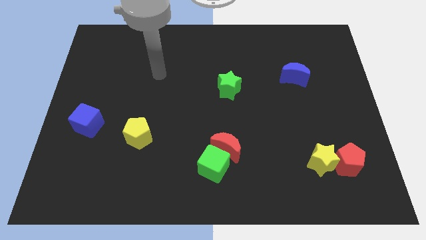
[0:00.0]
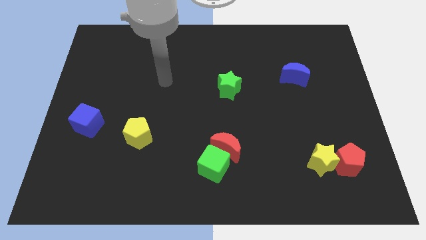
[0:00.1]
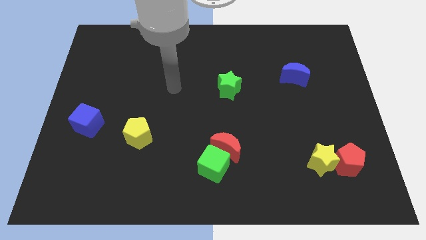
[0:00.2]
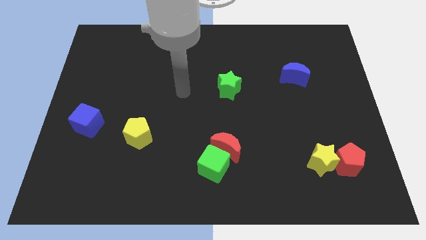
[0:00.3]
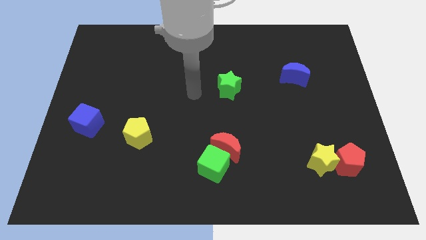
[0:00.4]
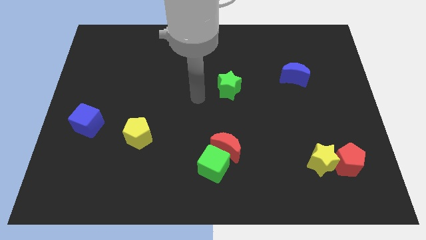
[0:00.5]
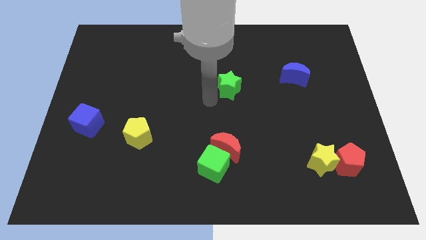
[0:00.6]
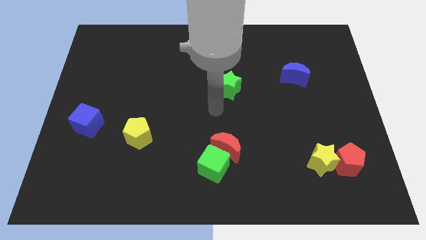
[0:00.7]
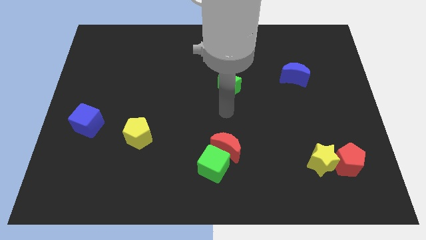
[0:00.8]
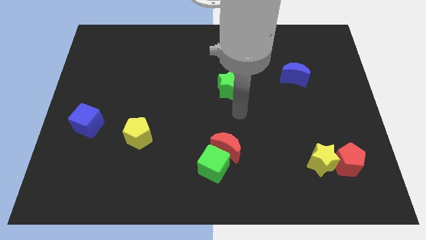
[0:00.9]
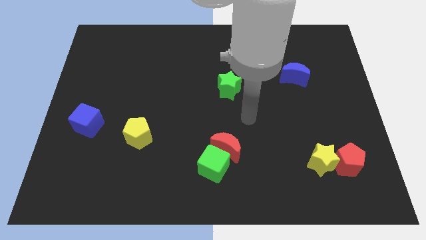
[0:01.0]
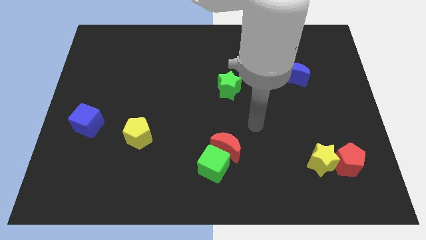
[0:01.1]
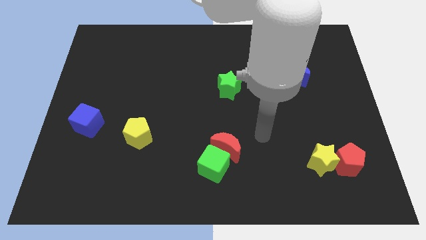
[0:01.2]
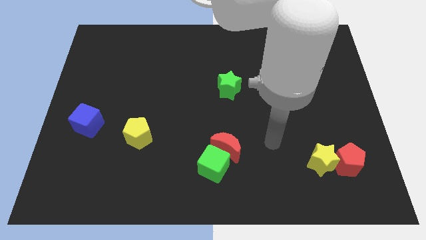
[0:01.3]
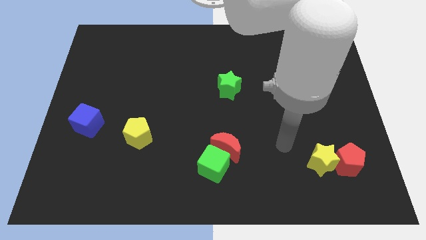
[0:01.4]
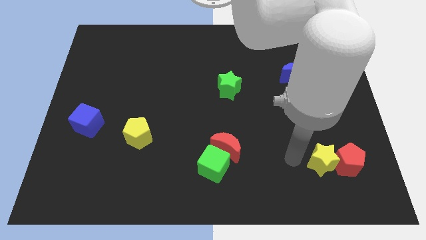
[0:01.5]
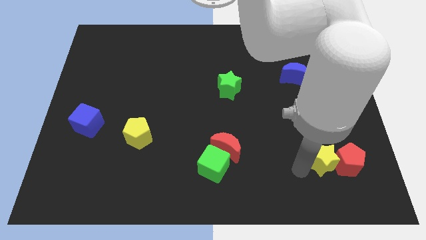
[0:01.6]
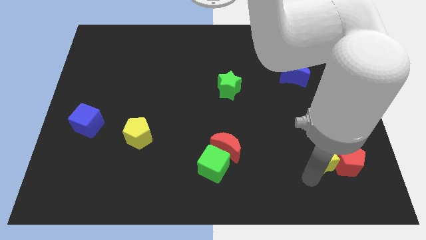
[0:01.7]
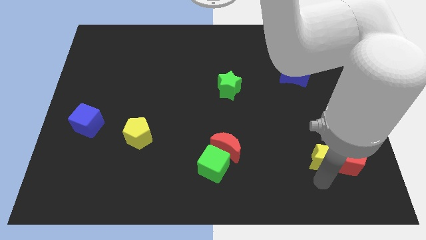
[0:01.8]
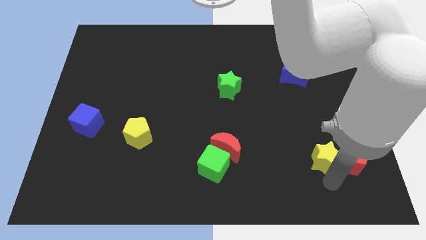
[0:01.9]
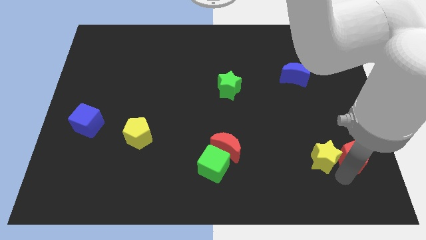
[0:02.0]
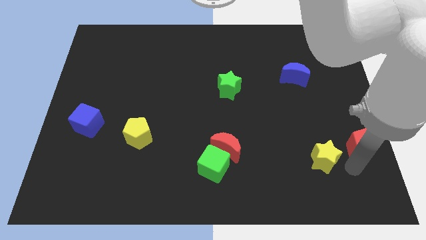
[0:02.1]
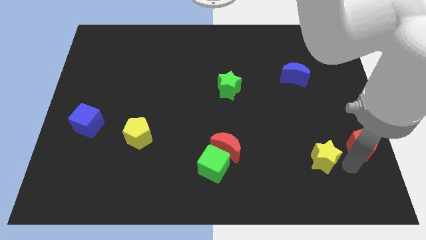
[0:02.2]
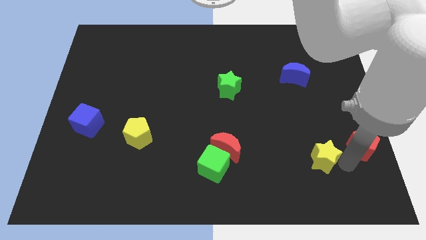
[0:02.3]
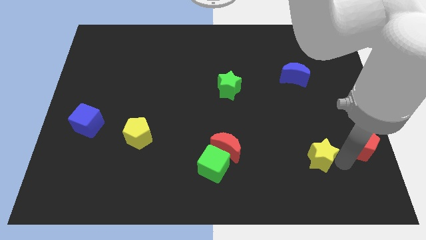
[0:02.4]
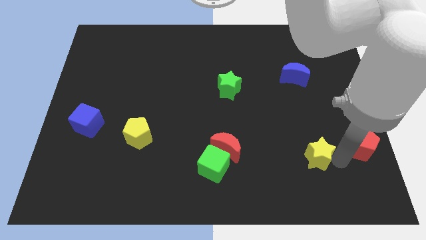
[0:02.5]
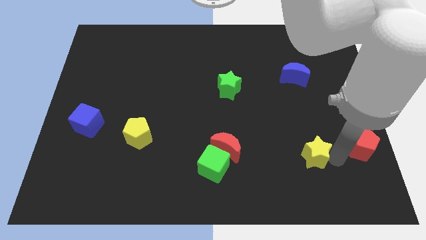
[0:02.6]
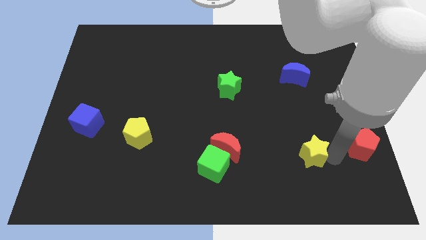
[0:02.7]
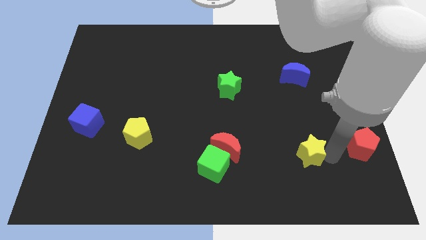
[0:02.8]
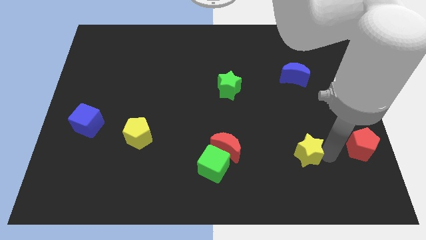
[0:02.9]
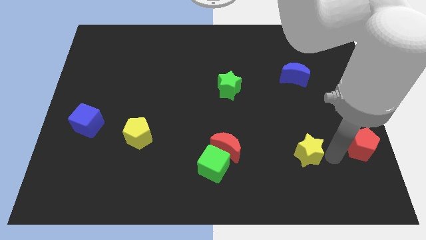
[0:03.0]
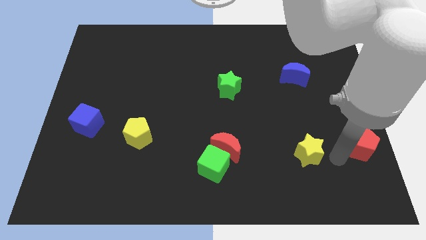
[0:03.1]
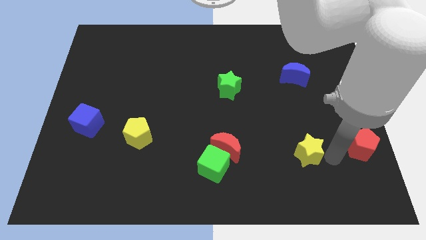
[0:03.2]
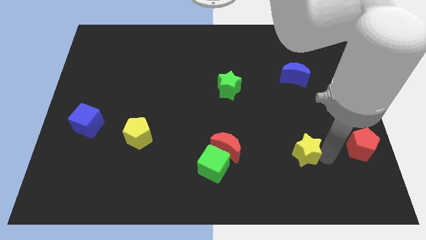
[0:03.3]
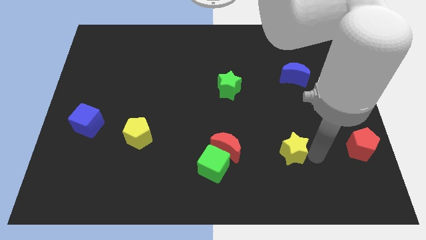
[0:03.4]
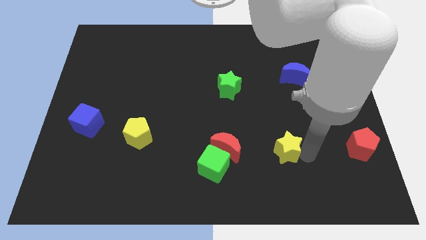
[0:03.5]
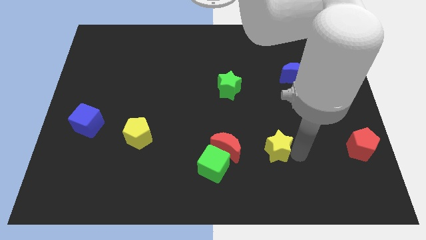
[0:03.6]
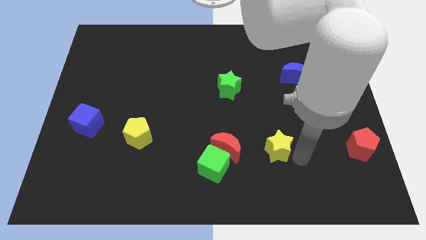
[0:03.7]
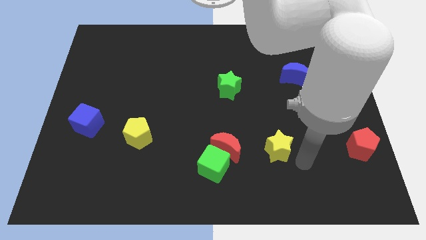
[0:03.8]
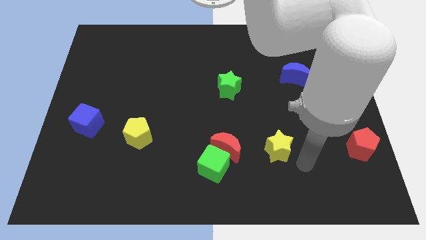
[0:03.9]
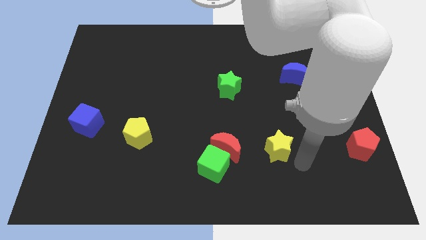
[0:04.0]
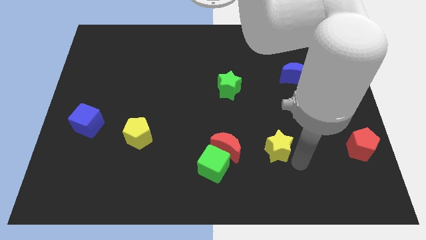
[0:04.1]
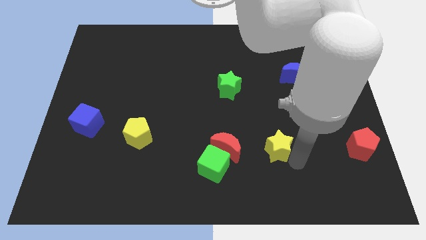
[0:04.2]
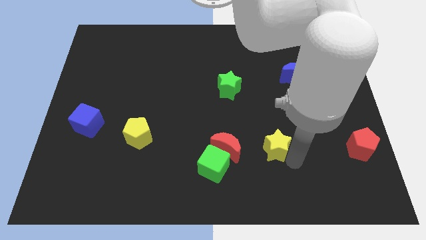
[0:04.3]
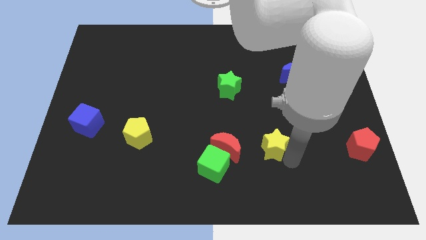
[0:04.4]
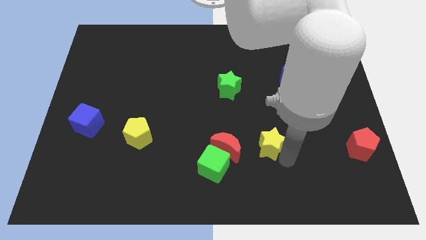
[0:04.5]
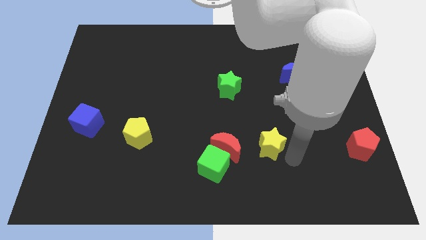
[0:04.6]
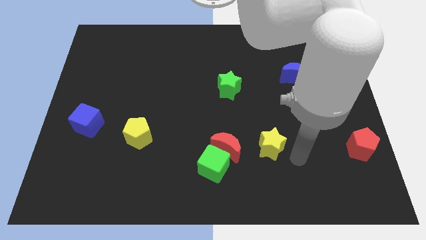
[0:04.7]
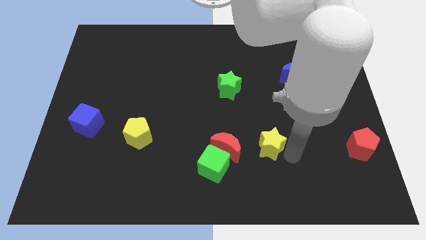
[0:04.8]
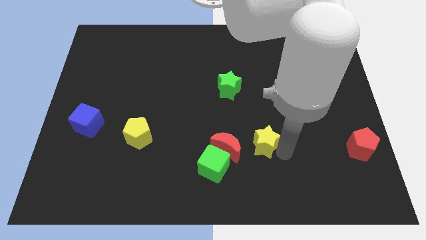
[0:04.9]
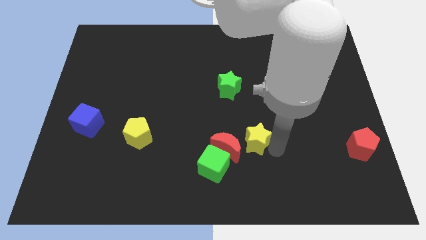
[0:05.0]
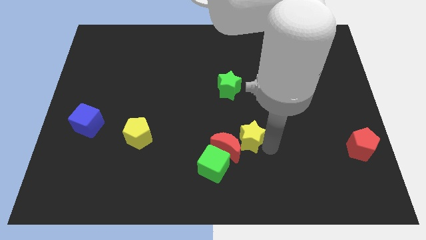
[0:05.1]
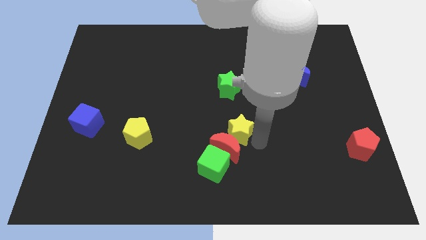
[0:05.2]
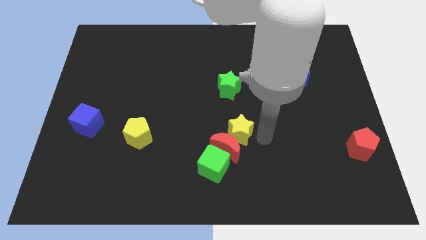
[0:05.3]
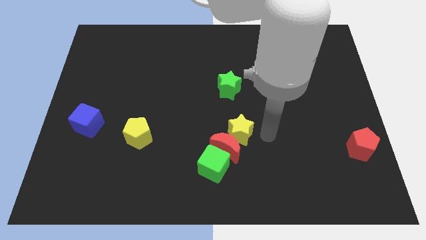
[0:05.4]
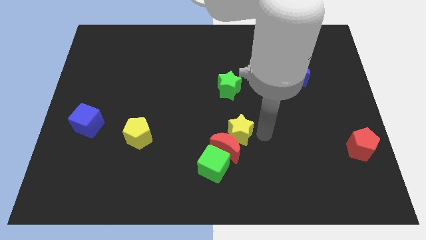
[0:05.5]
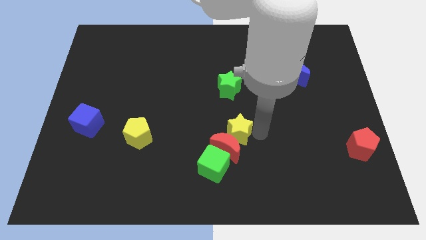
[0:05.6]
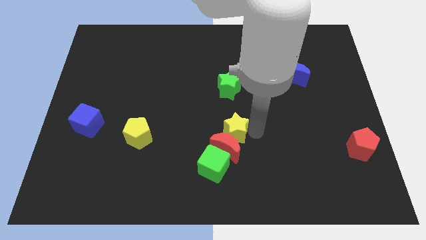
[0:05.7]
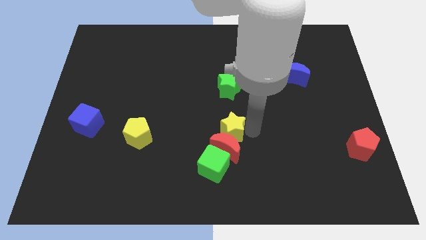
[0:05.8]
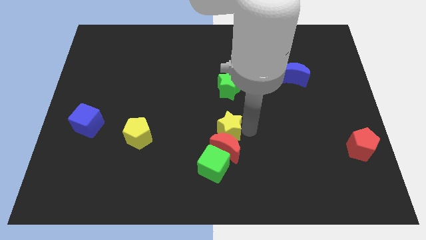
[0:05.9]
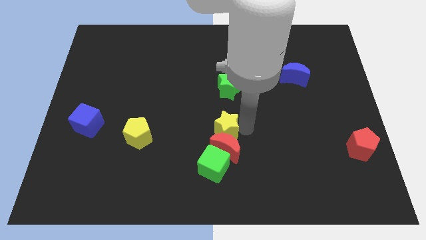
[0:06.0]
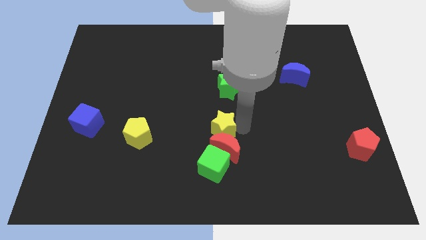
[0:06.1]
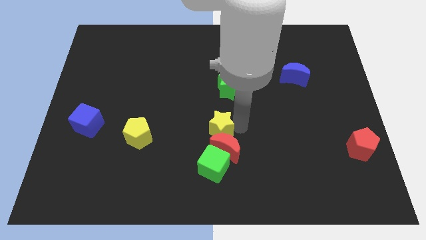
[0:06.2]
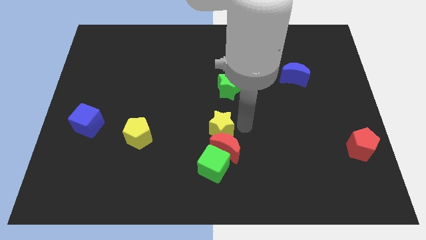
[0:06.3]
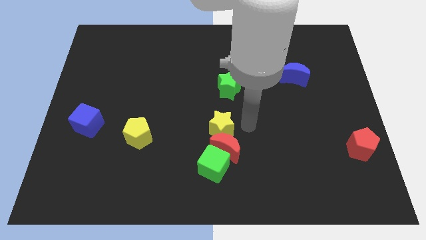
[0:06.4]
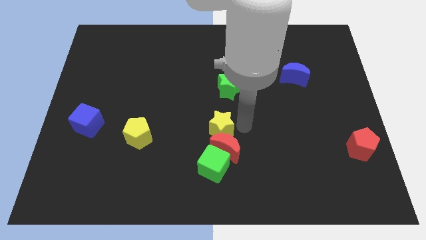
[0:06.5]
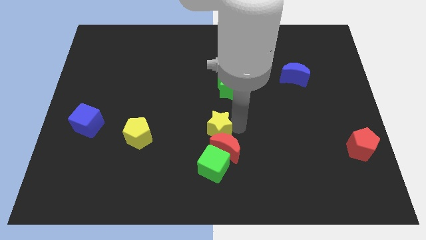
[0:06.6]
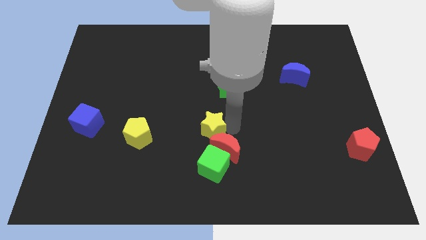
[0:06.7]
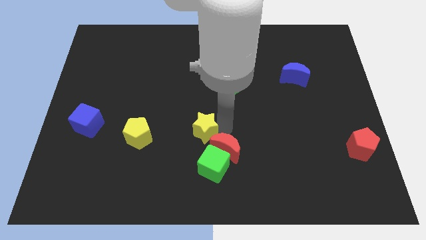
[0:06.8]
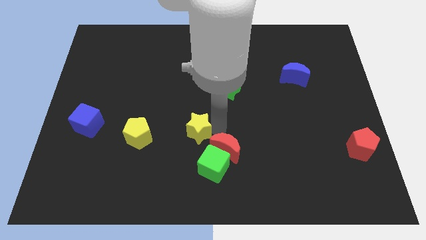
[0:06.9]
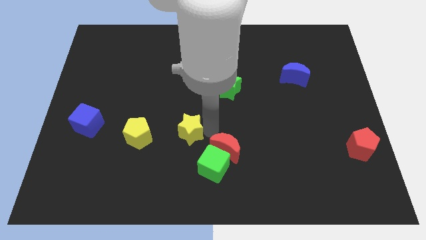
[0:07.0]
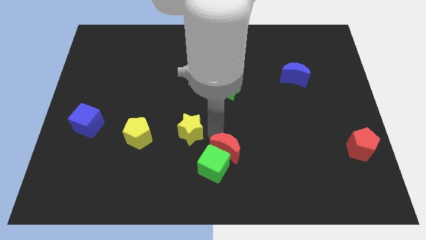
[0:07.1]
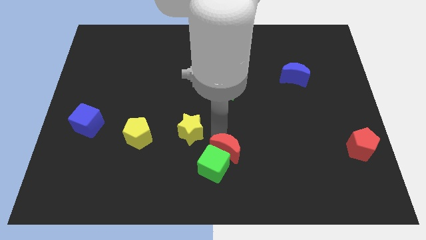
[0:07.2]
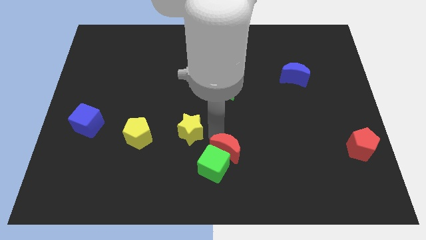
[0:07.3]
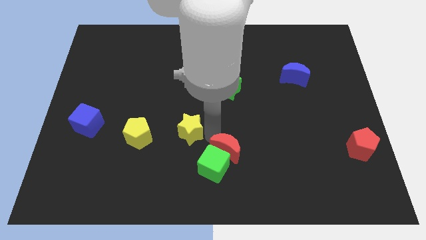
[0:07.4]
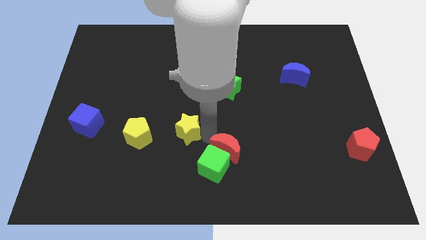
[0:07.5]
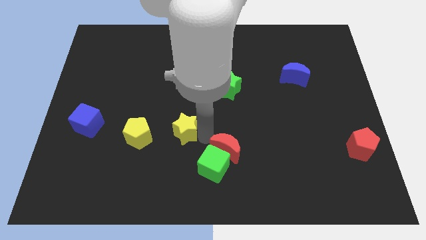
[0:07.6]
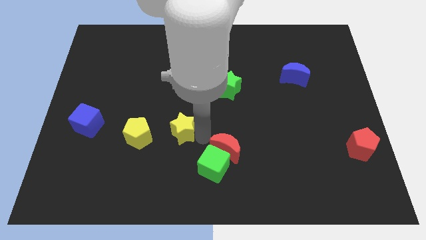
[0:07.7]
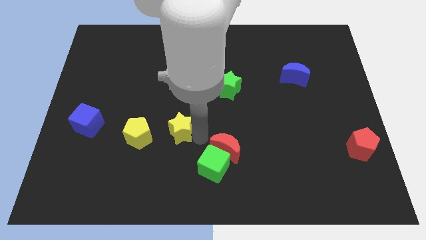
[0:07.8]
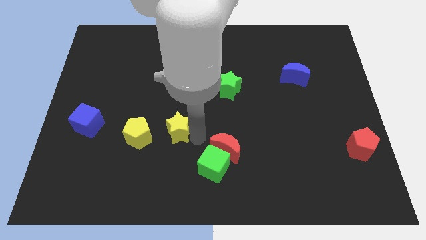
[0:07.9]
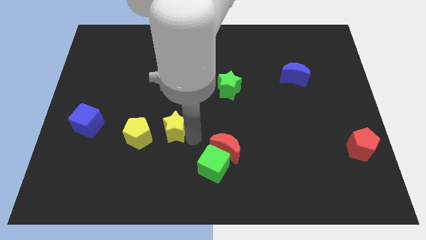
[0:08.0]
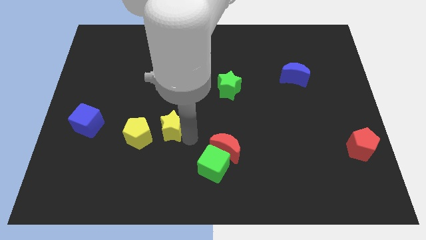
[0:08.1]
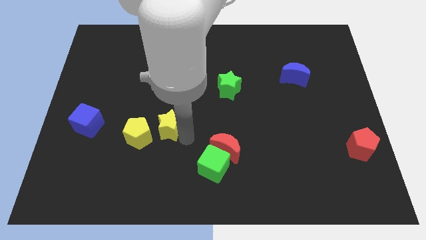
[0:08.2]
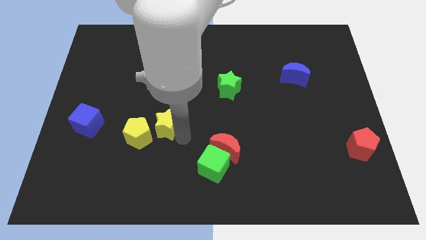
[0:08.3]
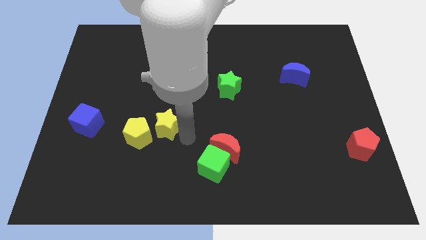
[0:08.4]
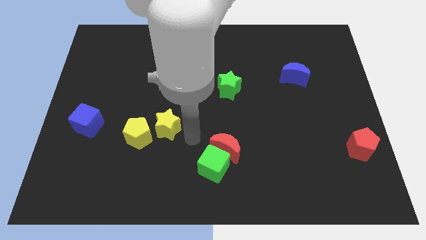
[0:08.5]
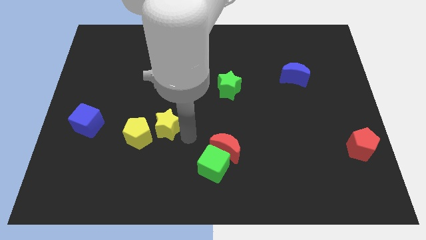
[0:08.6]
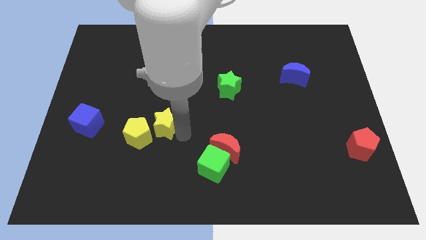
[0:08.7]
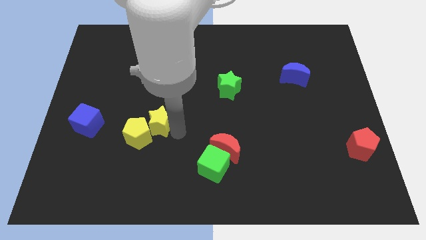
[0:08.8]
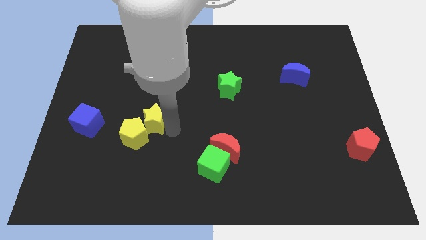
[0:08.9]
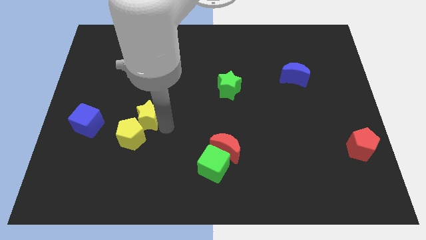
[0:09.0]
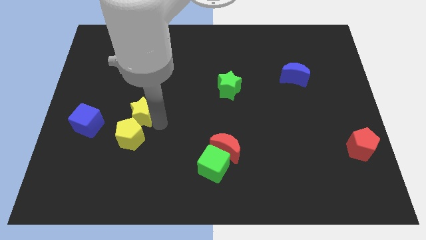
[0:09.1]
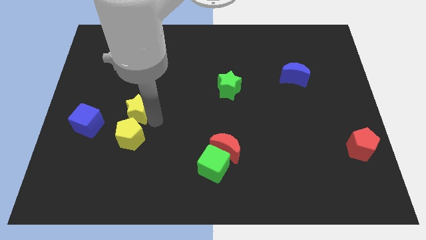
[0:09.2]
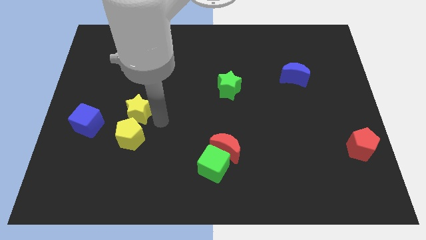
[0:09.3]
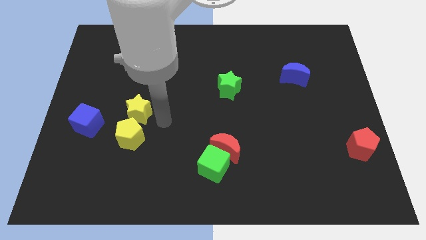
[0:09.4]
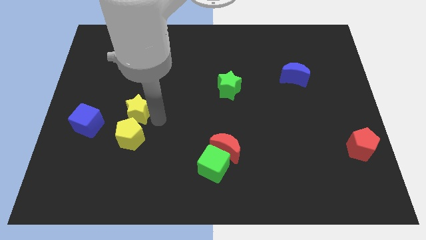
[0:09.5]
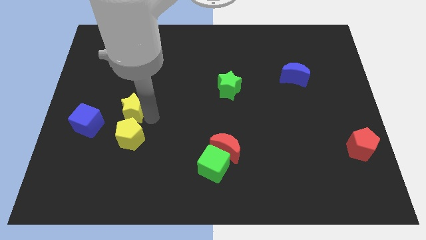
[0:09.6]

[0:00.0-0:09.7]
slide the yellow star diagonally up and to the right of the blue cube
